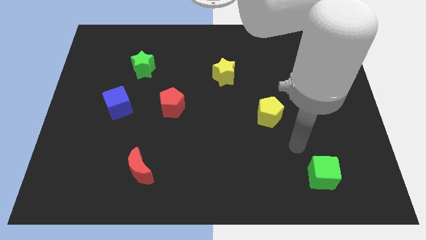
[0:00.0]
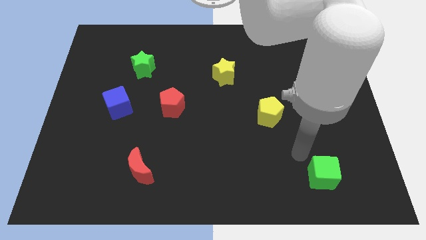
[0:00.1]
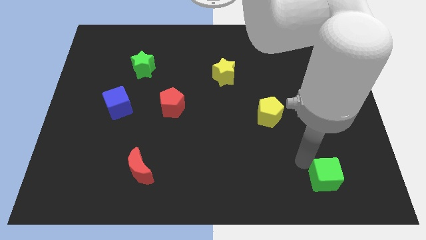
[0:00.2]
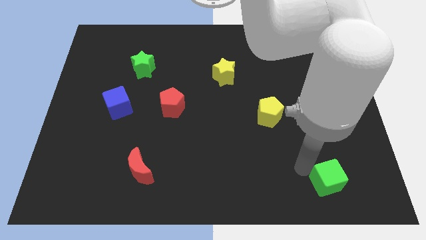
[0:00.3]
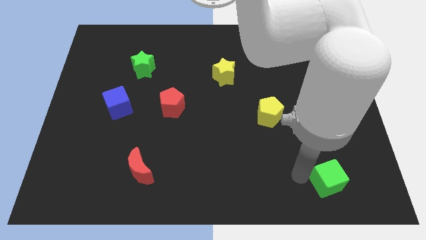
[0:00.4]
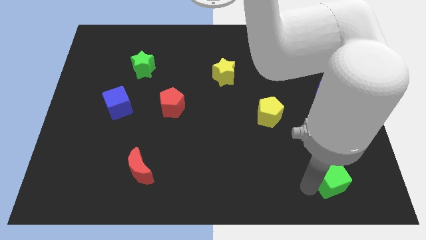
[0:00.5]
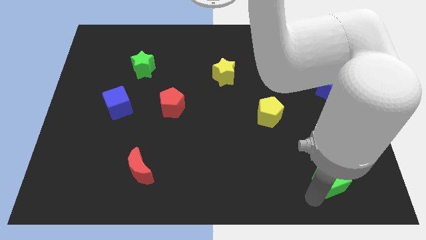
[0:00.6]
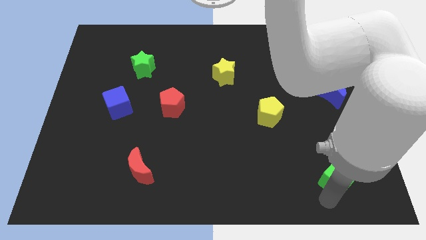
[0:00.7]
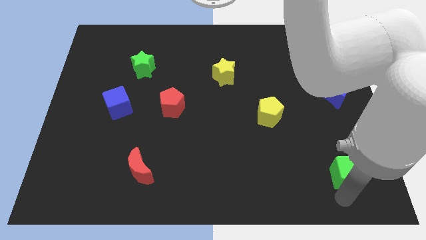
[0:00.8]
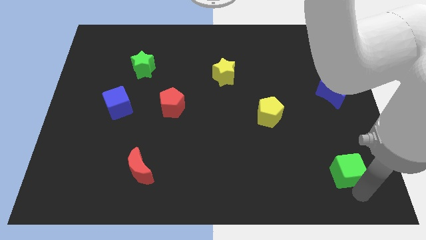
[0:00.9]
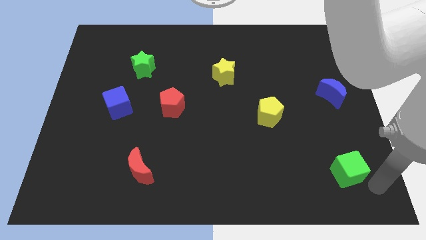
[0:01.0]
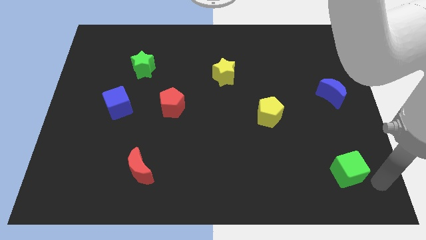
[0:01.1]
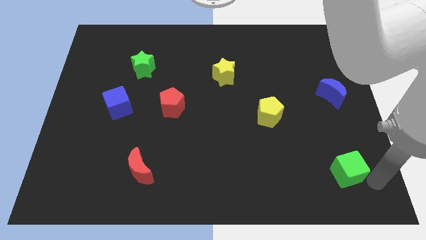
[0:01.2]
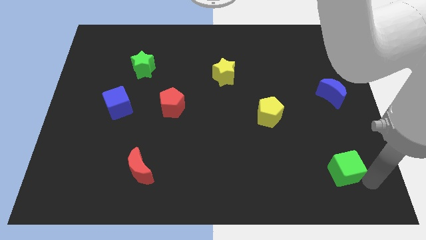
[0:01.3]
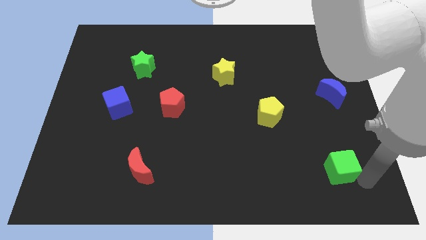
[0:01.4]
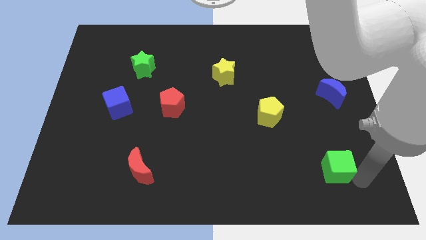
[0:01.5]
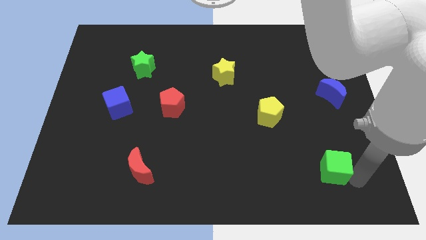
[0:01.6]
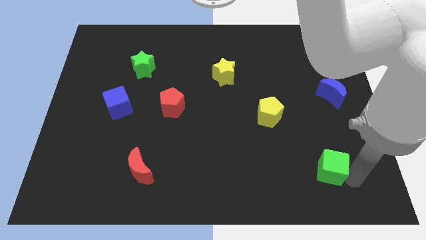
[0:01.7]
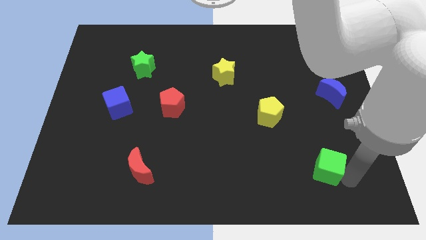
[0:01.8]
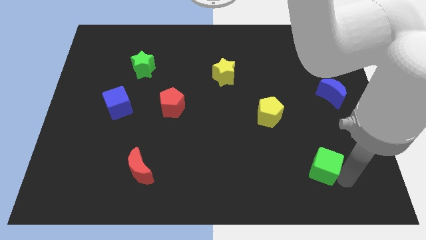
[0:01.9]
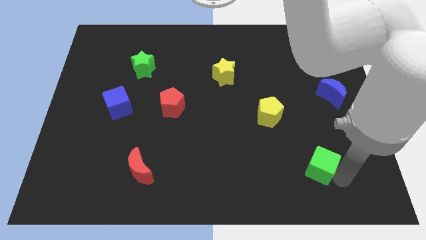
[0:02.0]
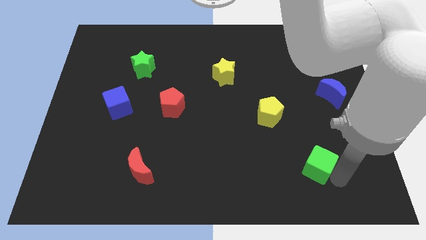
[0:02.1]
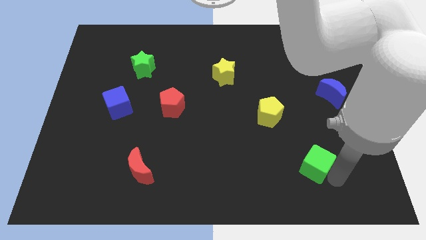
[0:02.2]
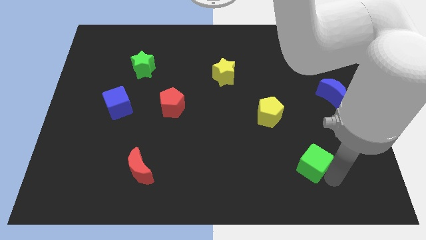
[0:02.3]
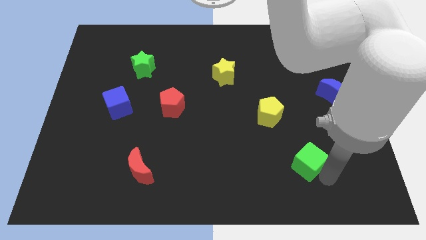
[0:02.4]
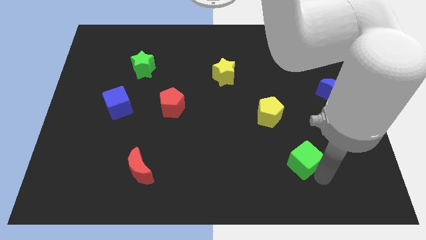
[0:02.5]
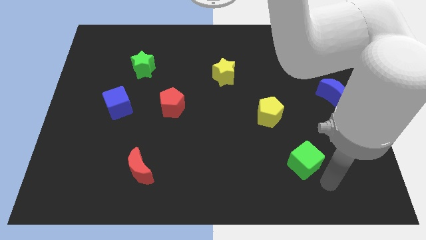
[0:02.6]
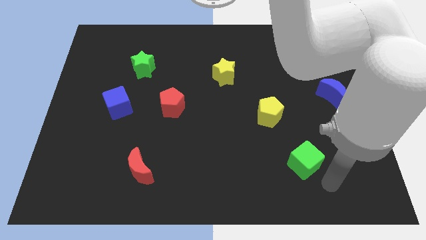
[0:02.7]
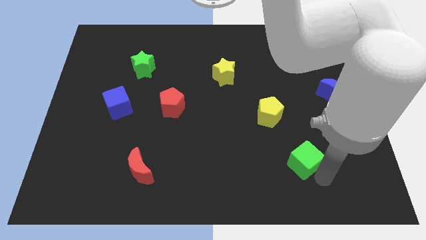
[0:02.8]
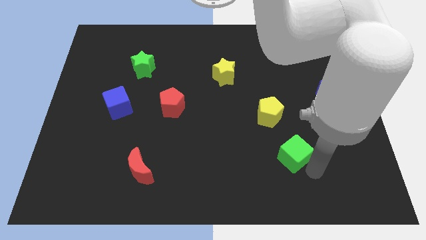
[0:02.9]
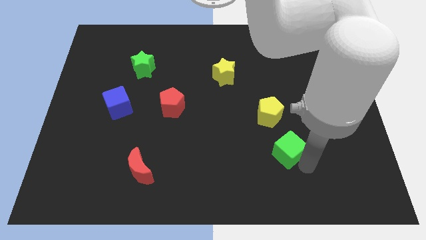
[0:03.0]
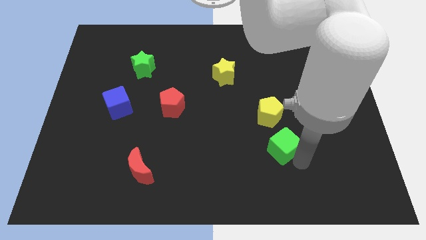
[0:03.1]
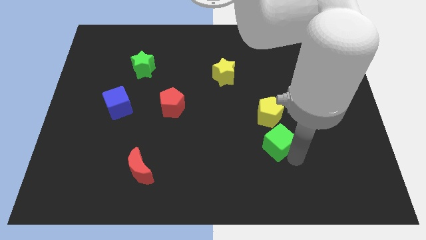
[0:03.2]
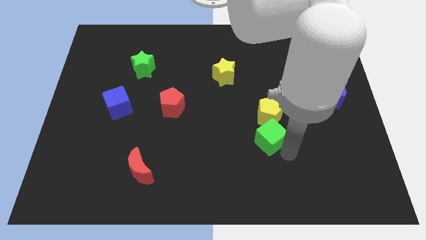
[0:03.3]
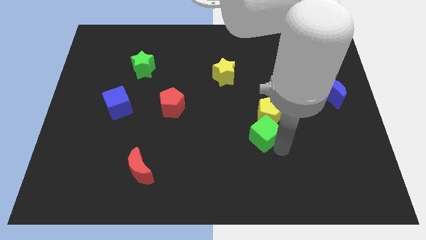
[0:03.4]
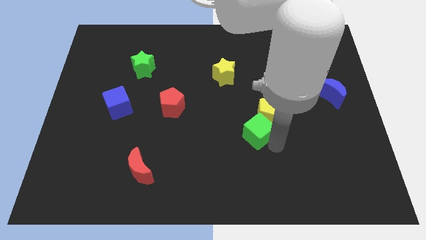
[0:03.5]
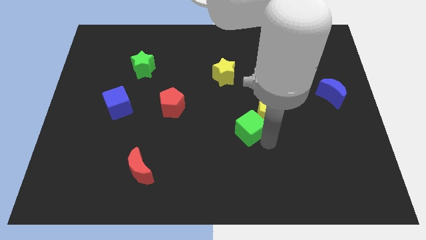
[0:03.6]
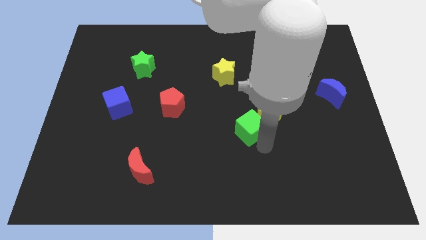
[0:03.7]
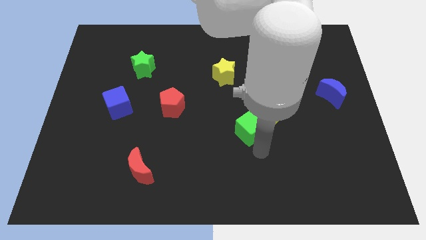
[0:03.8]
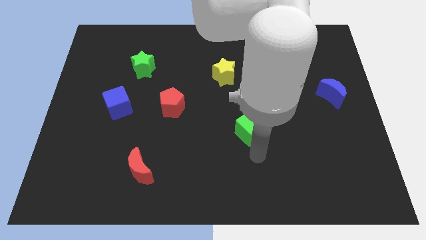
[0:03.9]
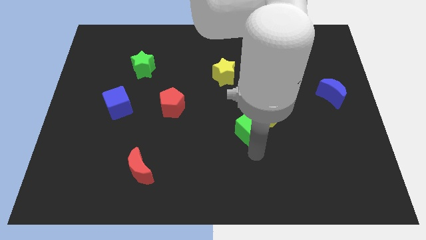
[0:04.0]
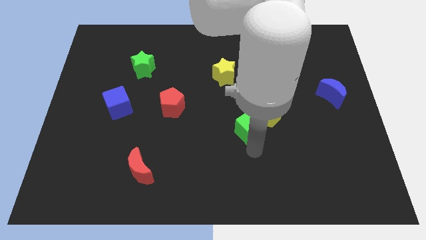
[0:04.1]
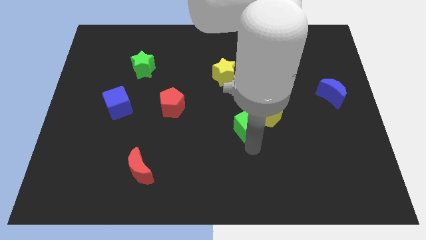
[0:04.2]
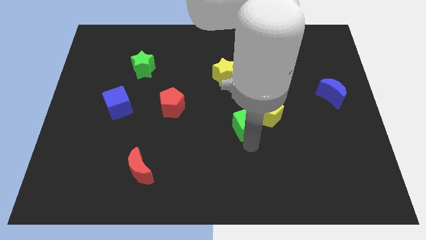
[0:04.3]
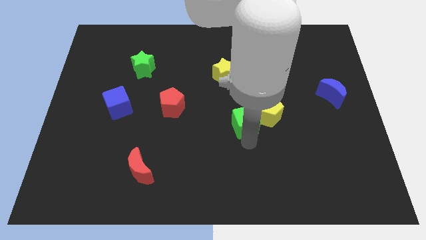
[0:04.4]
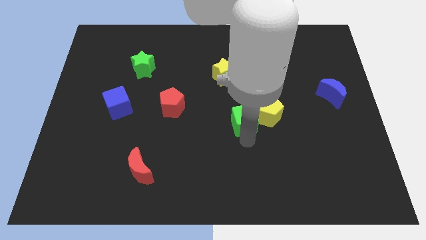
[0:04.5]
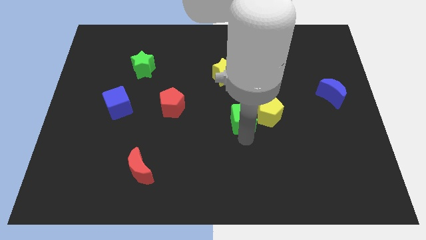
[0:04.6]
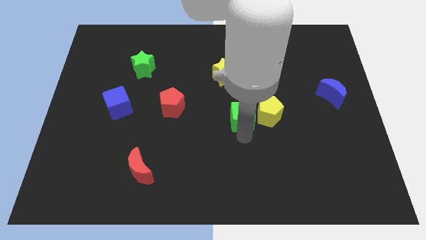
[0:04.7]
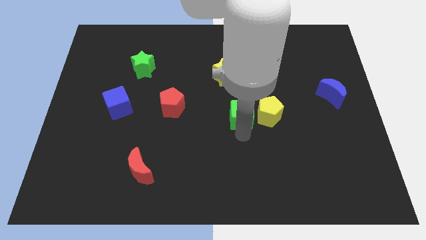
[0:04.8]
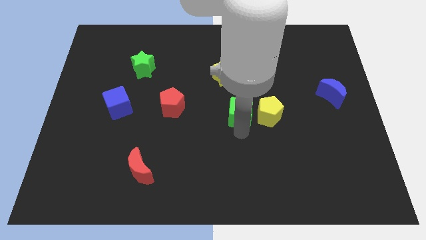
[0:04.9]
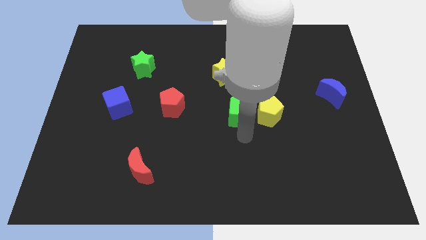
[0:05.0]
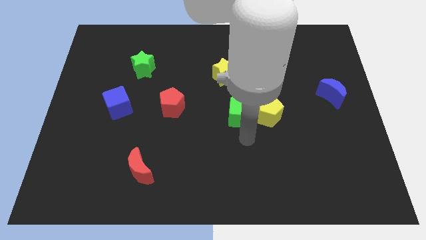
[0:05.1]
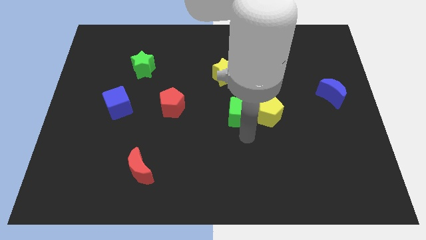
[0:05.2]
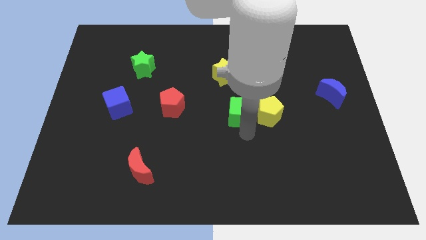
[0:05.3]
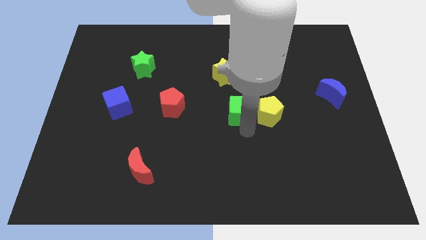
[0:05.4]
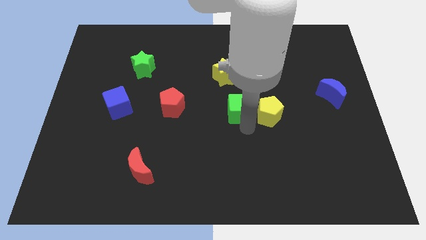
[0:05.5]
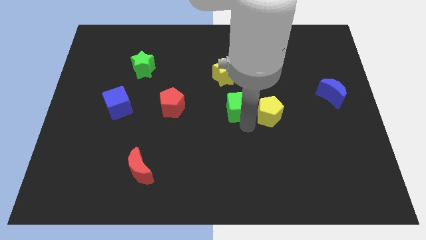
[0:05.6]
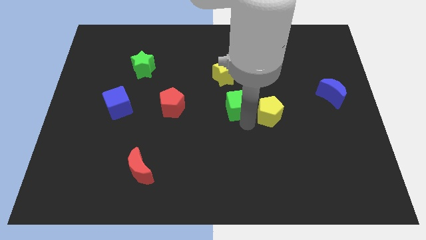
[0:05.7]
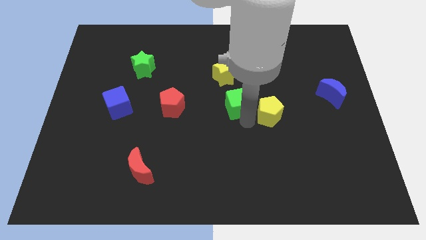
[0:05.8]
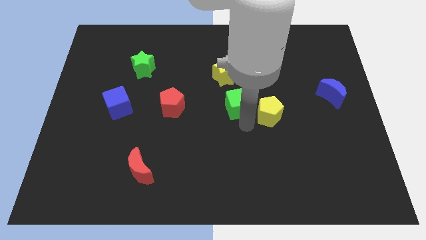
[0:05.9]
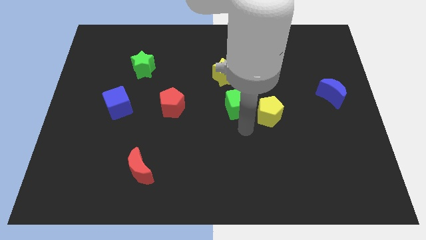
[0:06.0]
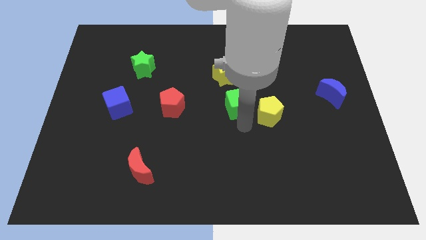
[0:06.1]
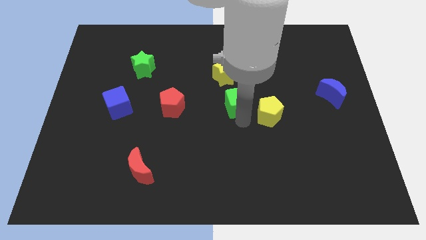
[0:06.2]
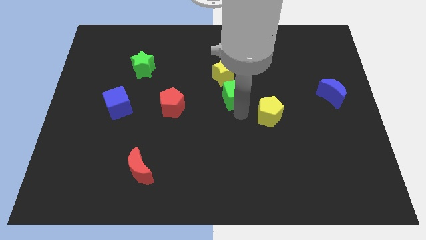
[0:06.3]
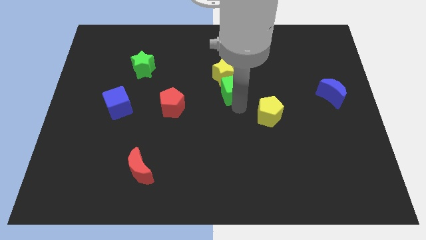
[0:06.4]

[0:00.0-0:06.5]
slide the green cube close to the yellow star
